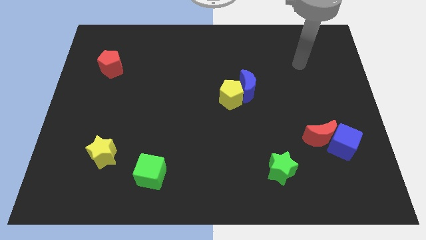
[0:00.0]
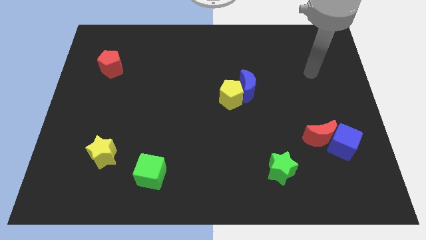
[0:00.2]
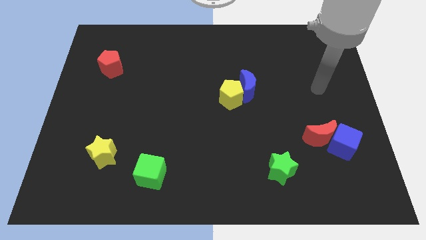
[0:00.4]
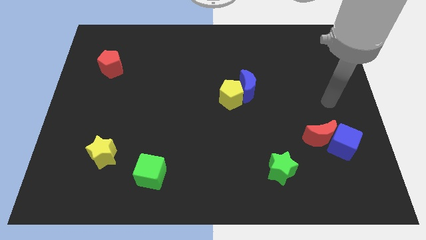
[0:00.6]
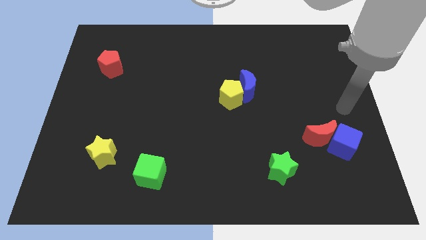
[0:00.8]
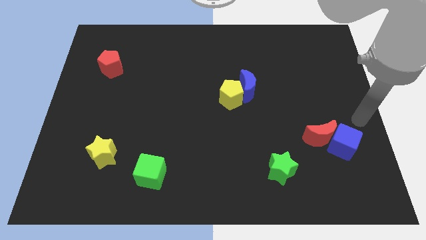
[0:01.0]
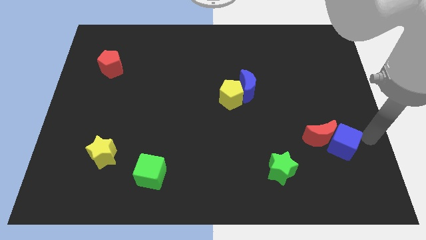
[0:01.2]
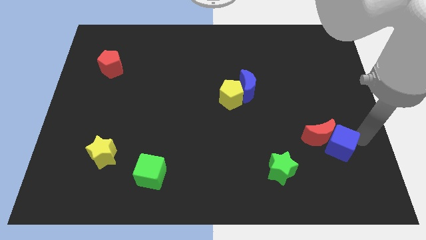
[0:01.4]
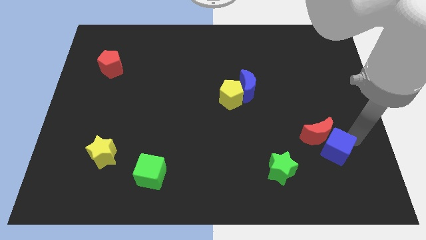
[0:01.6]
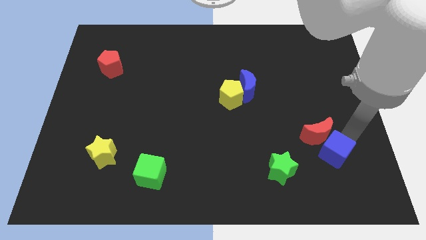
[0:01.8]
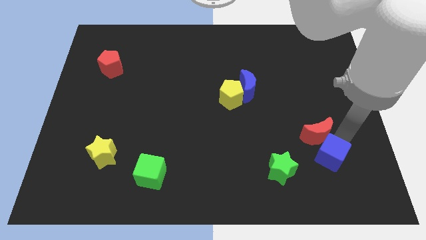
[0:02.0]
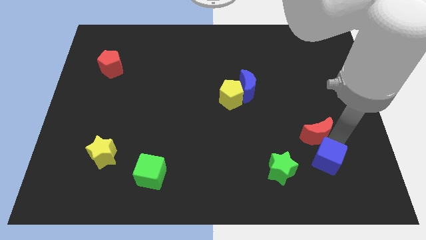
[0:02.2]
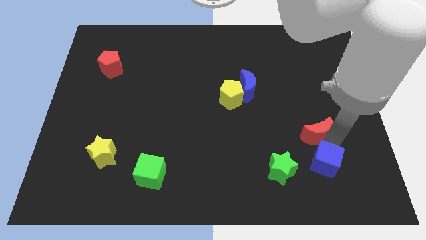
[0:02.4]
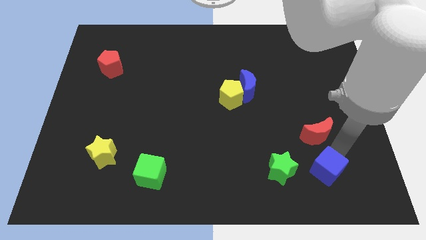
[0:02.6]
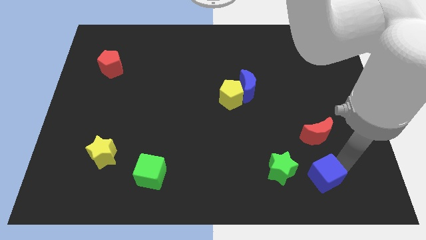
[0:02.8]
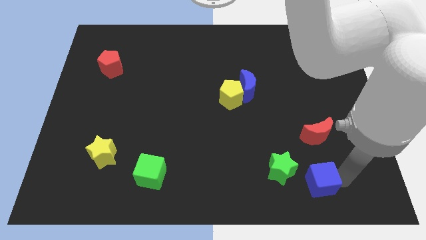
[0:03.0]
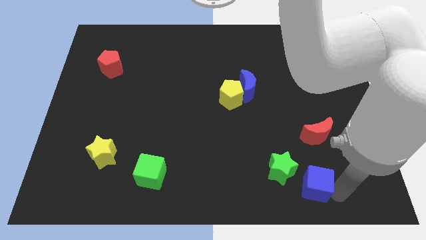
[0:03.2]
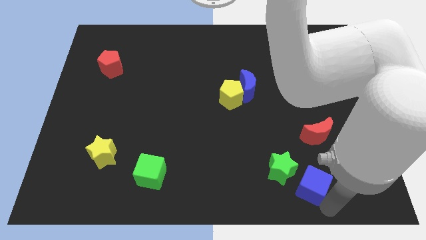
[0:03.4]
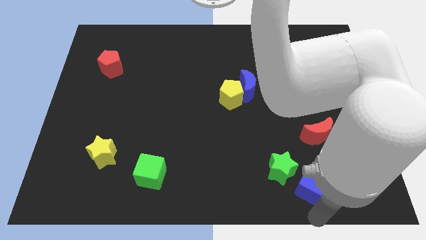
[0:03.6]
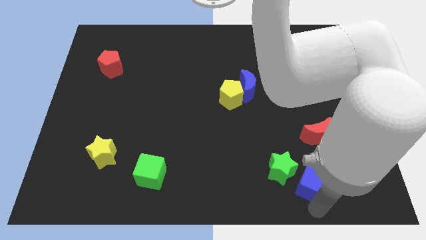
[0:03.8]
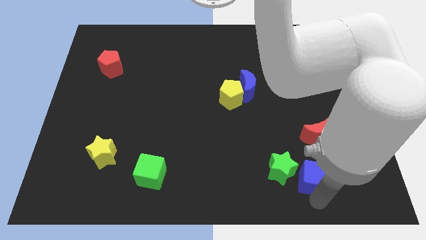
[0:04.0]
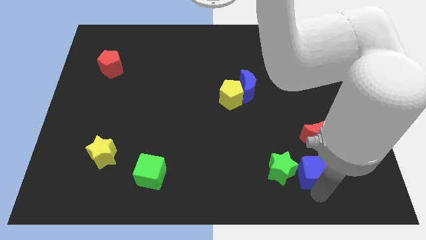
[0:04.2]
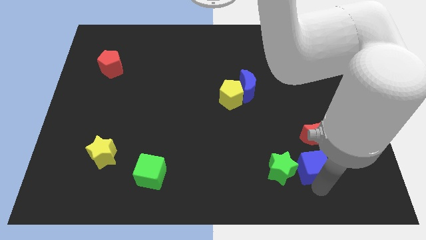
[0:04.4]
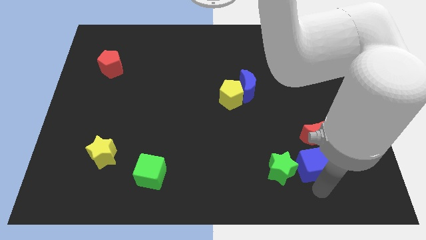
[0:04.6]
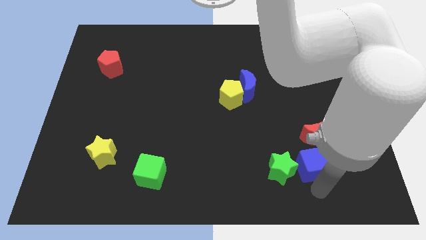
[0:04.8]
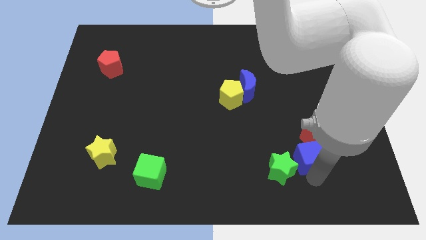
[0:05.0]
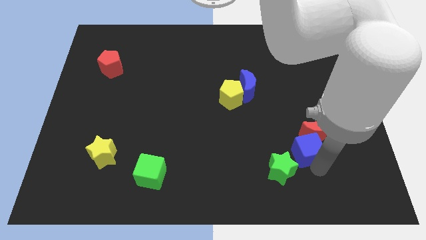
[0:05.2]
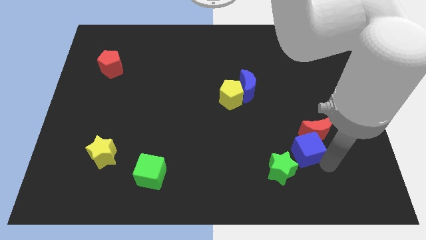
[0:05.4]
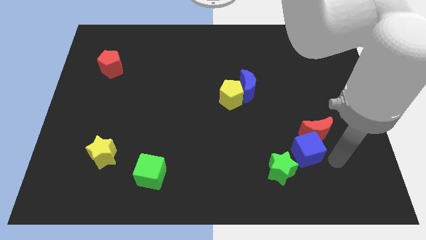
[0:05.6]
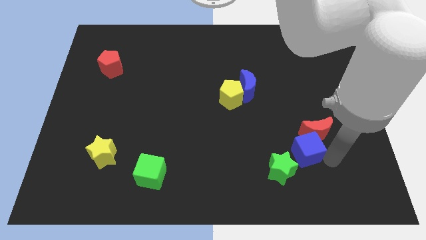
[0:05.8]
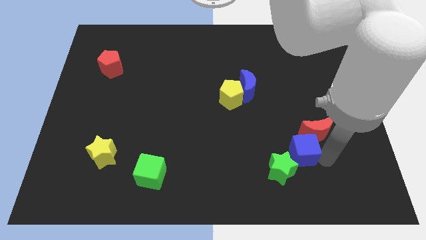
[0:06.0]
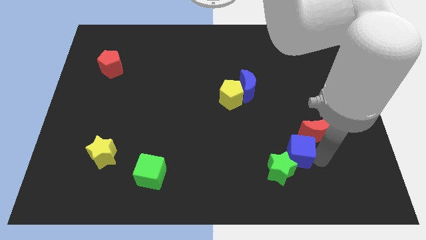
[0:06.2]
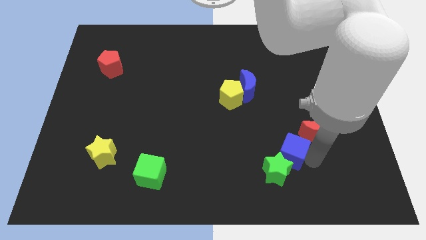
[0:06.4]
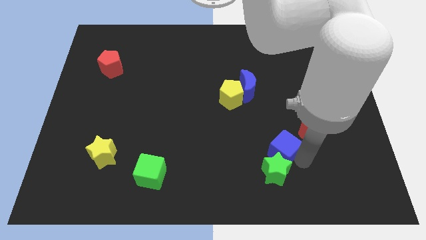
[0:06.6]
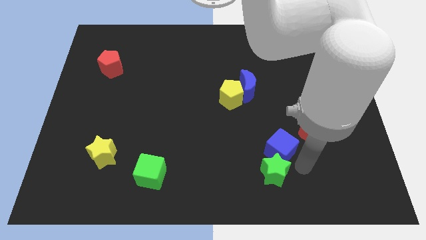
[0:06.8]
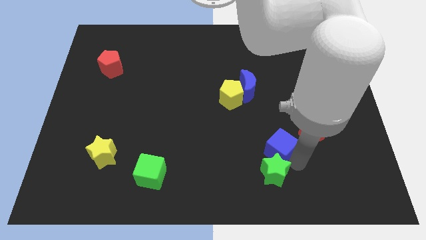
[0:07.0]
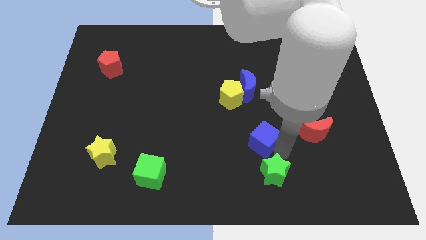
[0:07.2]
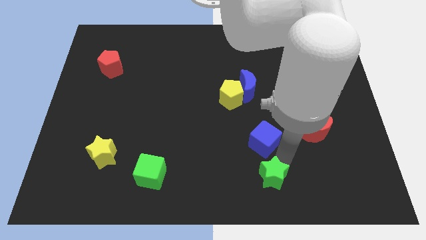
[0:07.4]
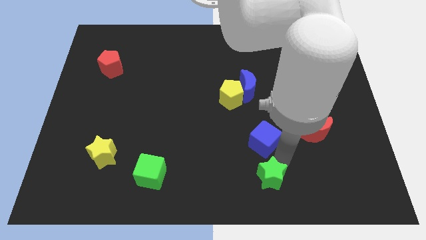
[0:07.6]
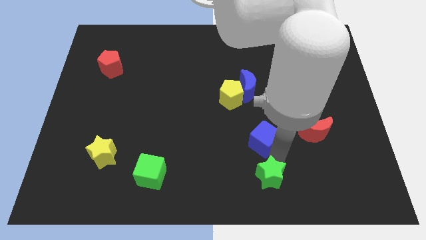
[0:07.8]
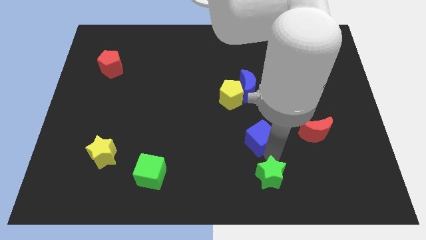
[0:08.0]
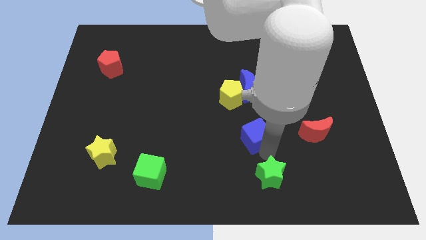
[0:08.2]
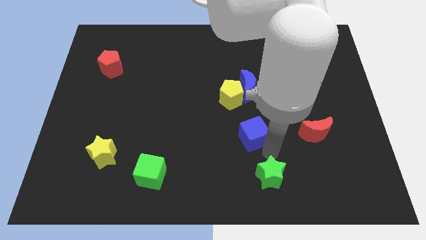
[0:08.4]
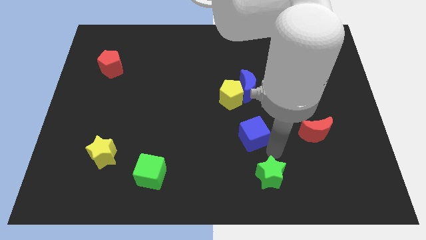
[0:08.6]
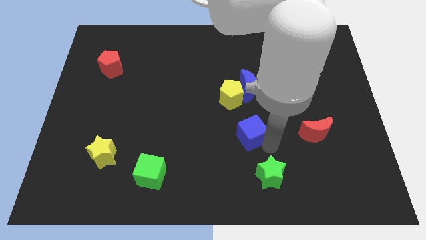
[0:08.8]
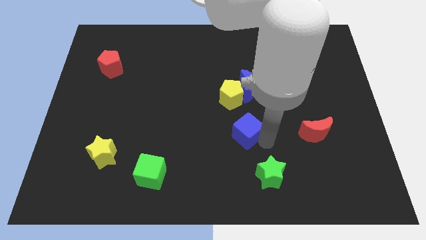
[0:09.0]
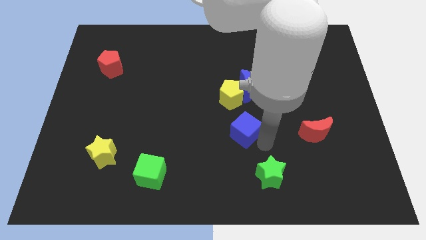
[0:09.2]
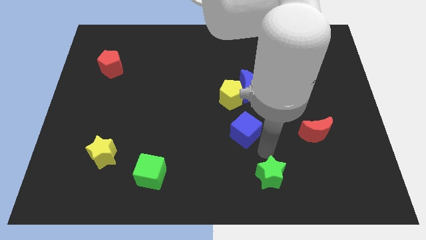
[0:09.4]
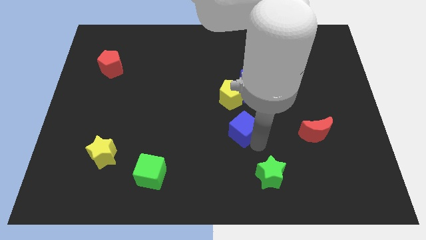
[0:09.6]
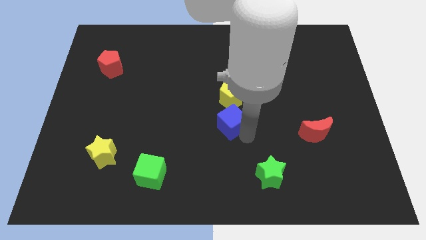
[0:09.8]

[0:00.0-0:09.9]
move the blue cube to the bottom left side of the blue moon

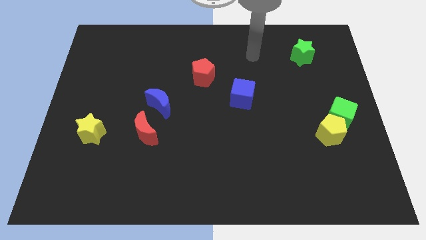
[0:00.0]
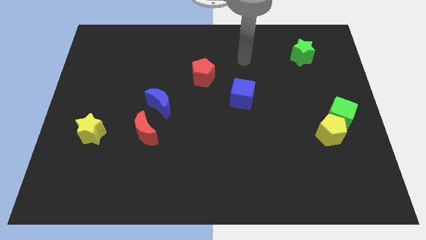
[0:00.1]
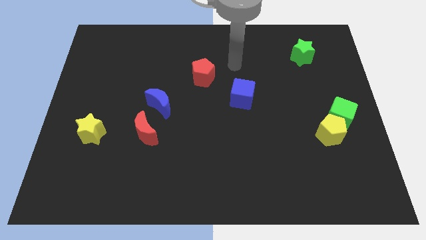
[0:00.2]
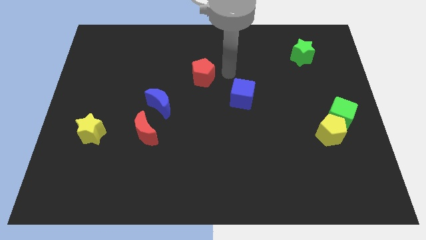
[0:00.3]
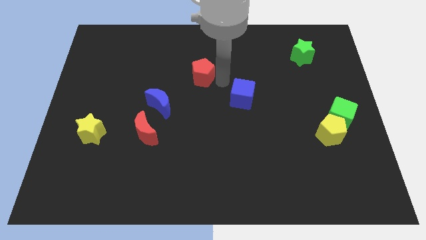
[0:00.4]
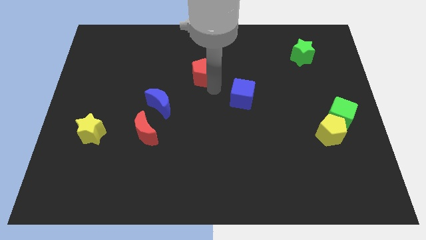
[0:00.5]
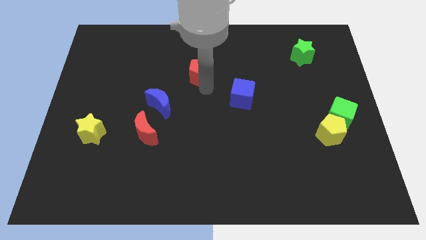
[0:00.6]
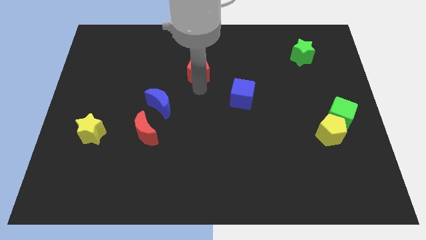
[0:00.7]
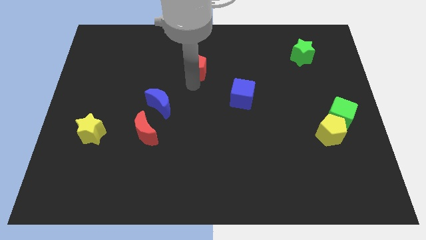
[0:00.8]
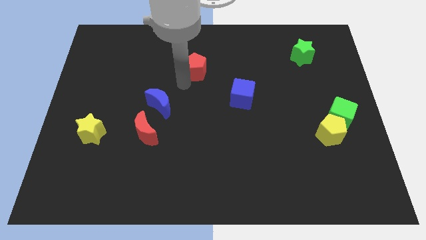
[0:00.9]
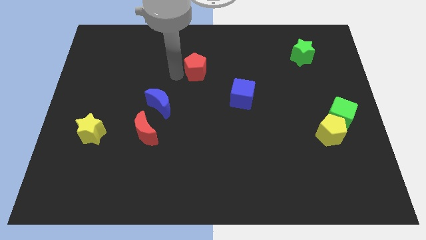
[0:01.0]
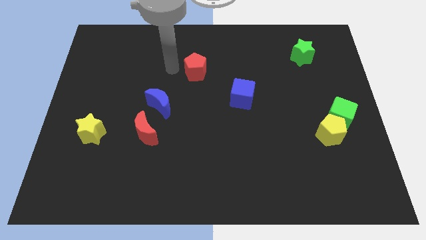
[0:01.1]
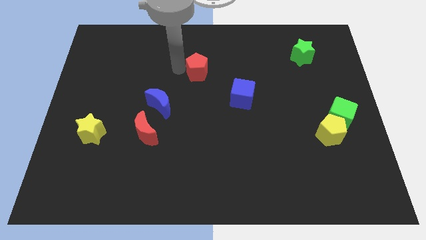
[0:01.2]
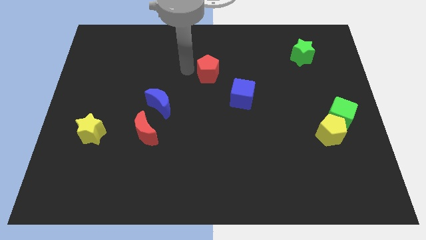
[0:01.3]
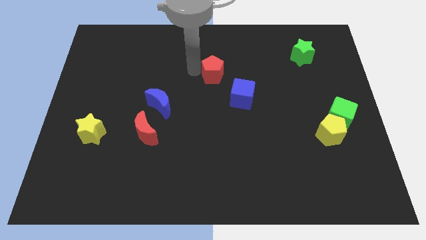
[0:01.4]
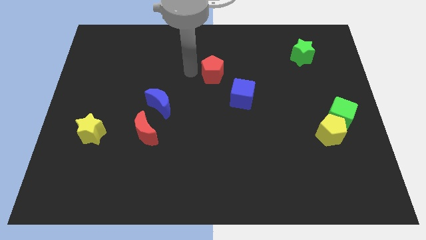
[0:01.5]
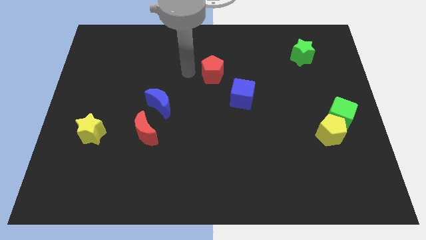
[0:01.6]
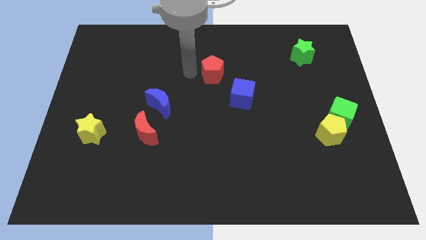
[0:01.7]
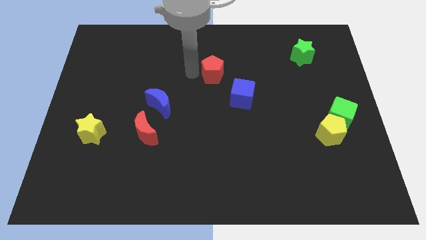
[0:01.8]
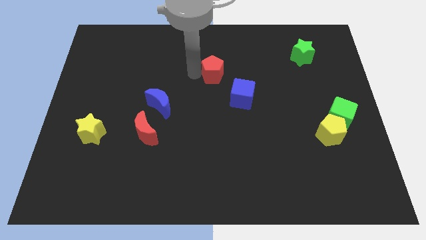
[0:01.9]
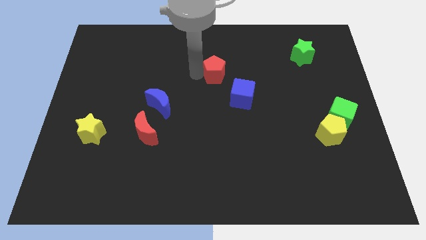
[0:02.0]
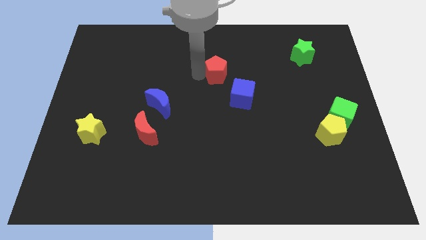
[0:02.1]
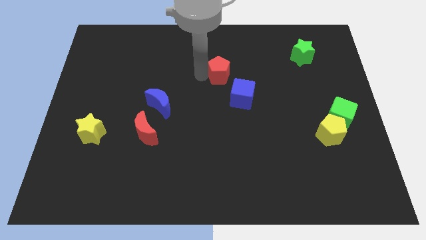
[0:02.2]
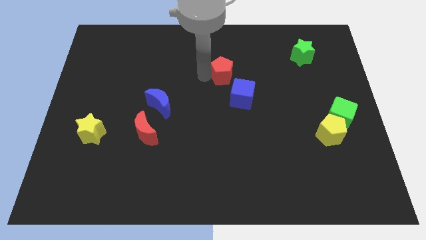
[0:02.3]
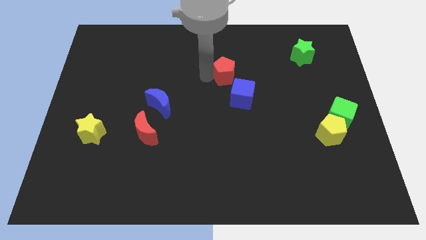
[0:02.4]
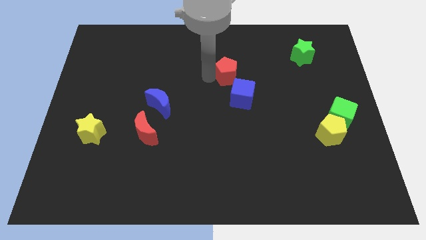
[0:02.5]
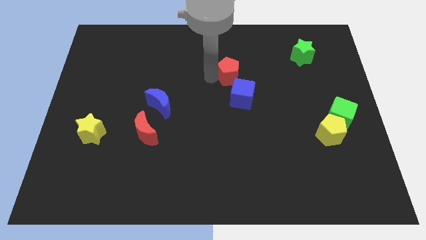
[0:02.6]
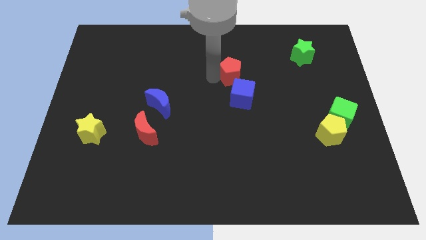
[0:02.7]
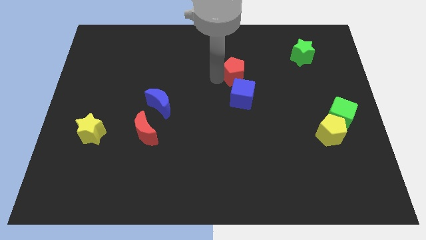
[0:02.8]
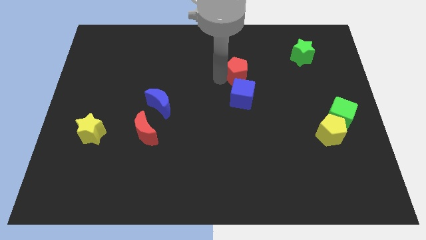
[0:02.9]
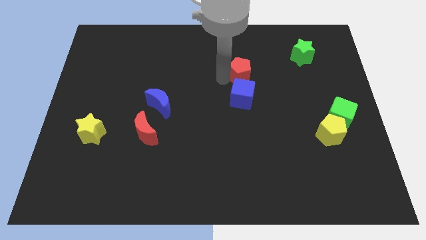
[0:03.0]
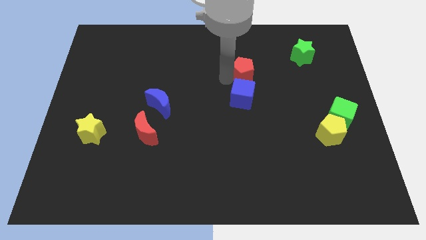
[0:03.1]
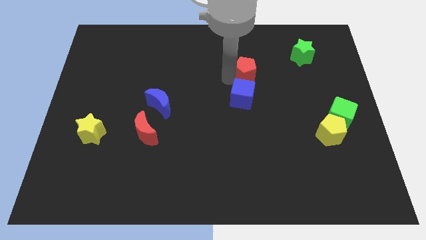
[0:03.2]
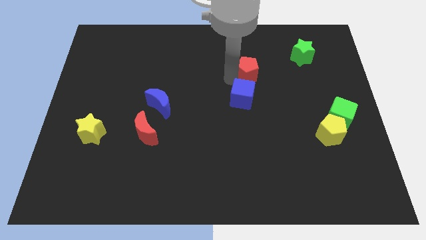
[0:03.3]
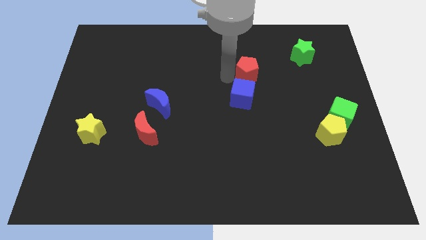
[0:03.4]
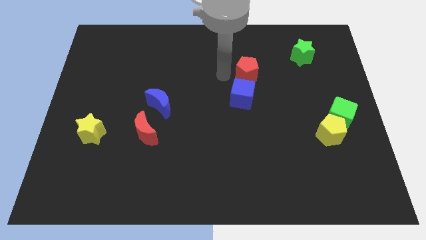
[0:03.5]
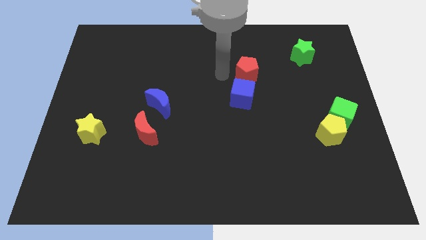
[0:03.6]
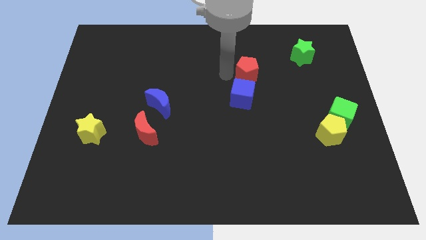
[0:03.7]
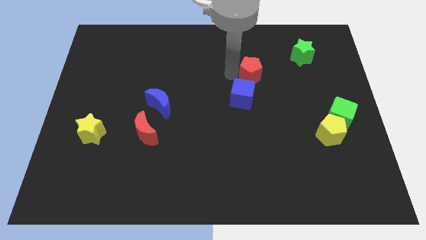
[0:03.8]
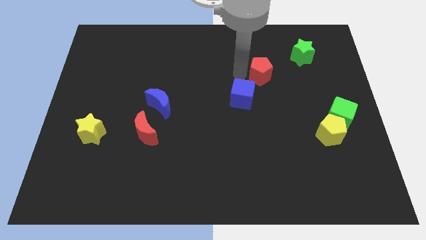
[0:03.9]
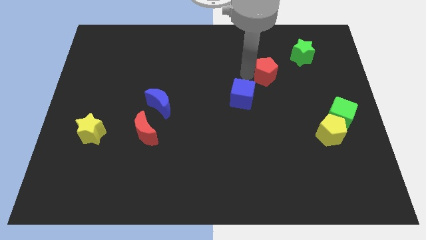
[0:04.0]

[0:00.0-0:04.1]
move the red pentagon to the bottom left side of the green star
